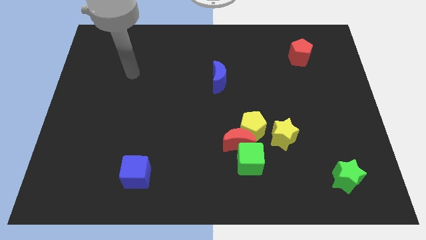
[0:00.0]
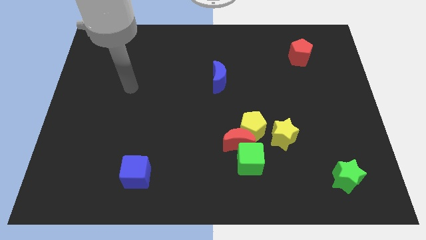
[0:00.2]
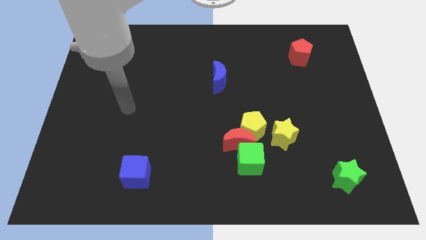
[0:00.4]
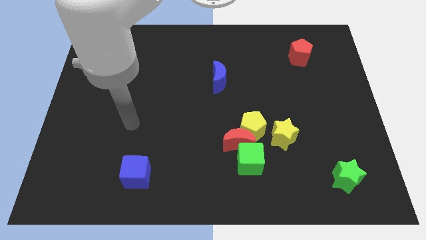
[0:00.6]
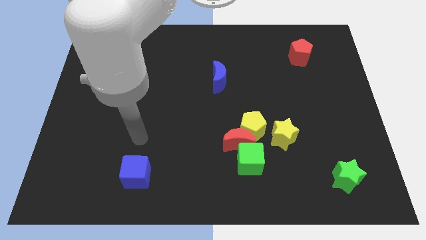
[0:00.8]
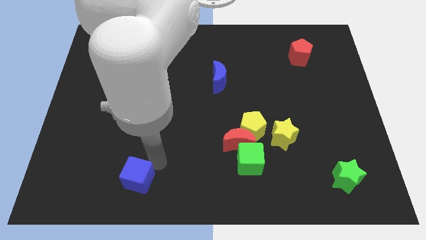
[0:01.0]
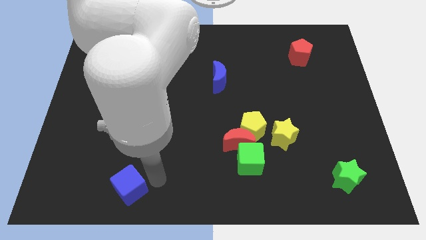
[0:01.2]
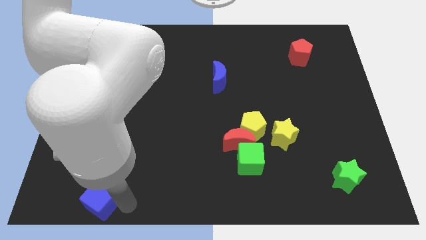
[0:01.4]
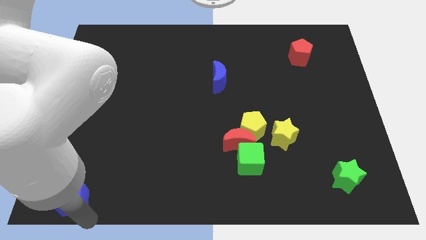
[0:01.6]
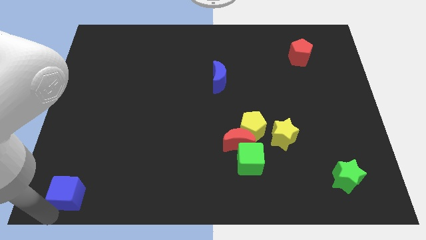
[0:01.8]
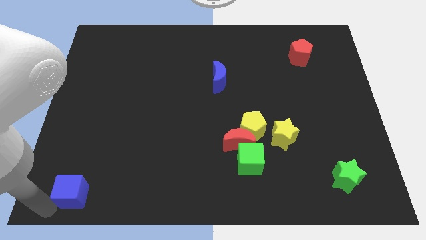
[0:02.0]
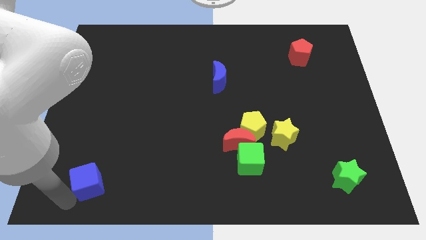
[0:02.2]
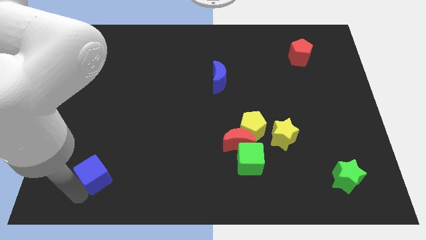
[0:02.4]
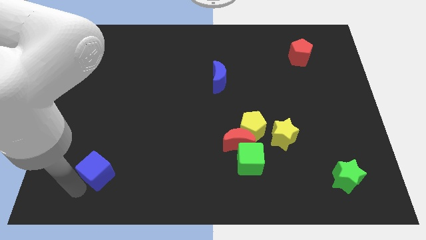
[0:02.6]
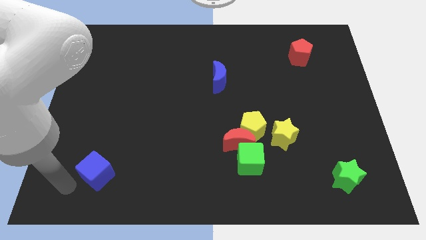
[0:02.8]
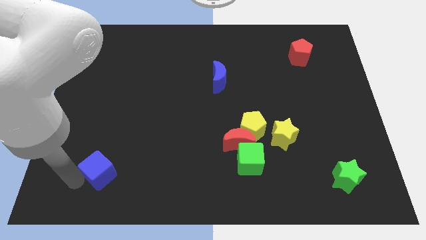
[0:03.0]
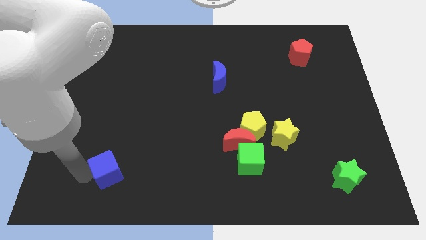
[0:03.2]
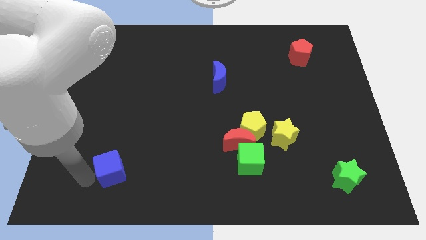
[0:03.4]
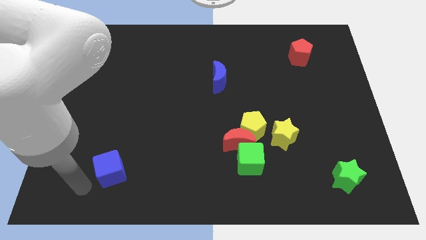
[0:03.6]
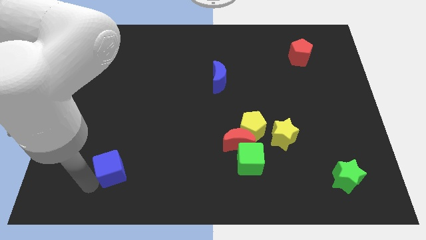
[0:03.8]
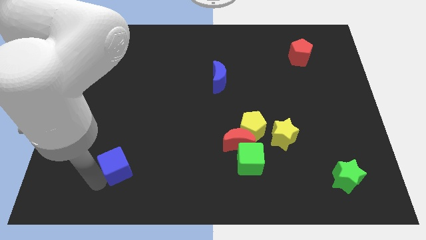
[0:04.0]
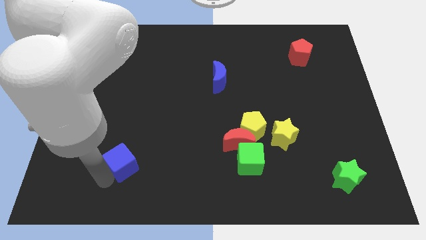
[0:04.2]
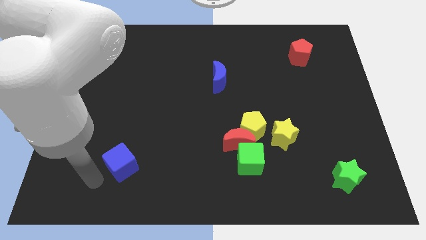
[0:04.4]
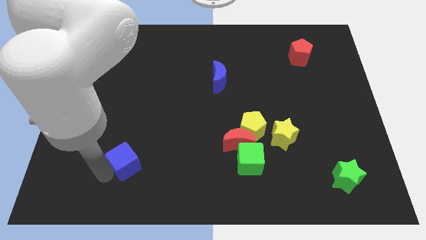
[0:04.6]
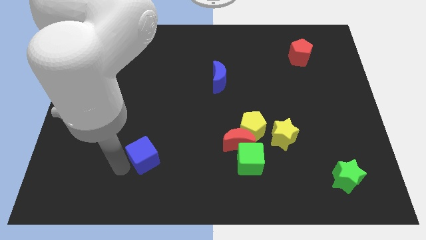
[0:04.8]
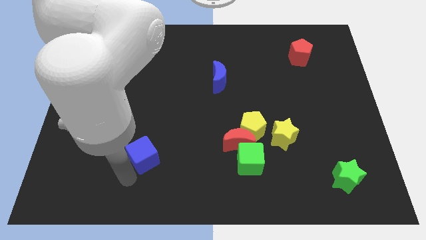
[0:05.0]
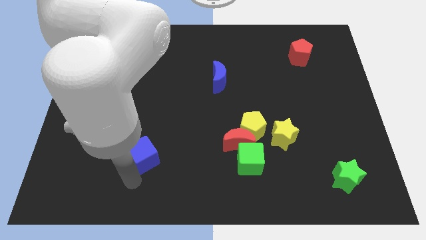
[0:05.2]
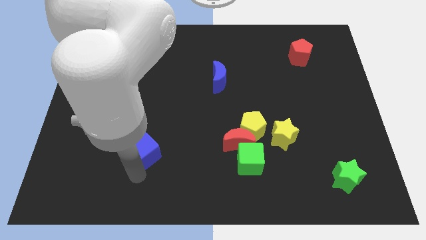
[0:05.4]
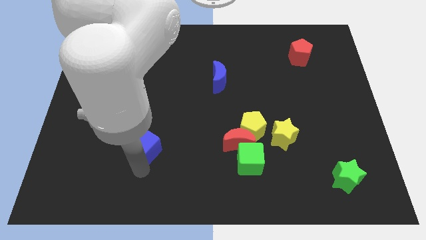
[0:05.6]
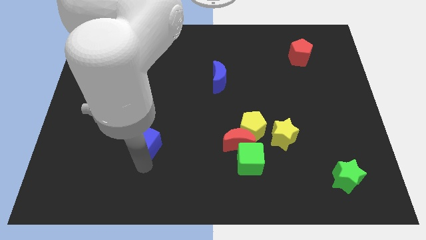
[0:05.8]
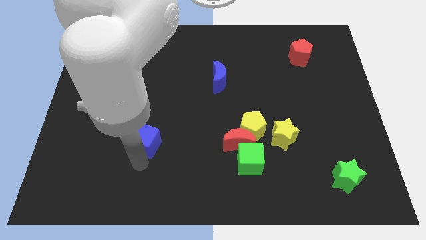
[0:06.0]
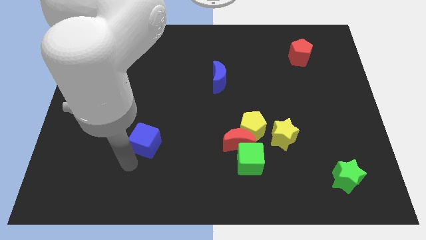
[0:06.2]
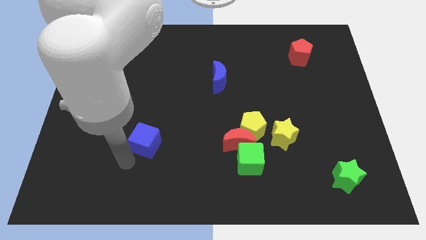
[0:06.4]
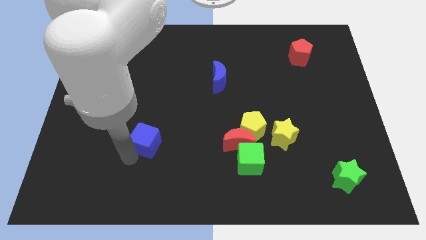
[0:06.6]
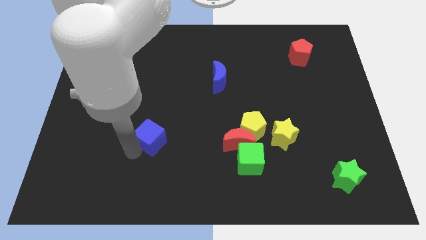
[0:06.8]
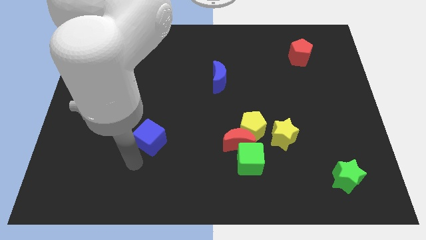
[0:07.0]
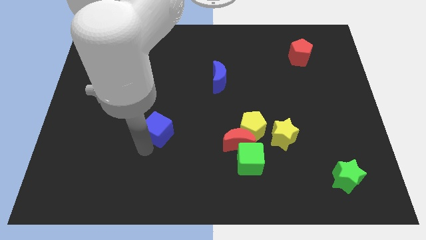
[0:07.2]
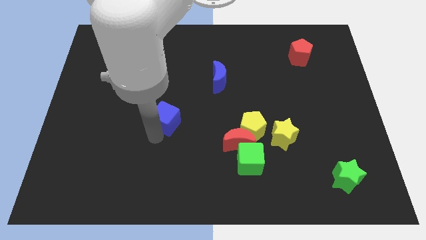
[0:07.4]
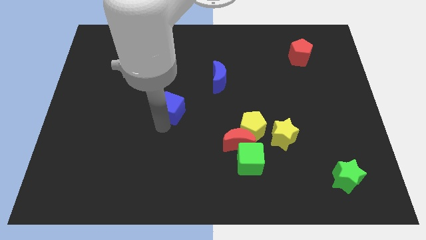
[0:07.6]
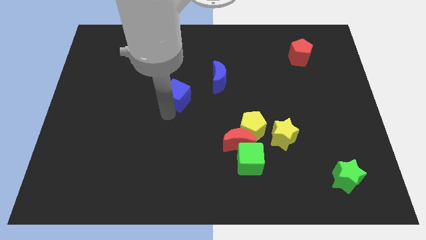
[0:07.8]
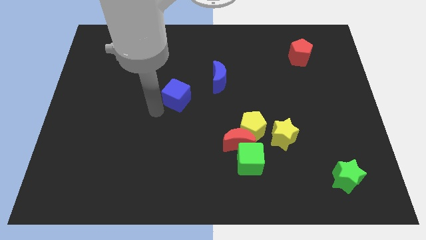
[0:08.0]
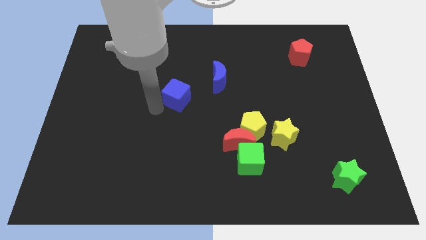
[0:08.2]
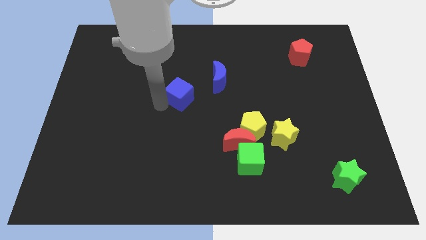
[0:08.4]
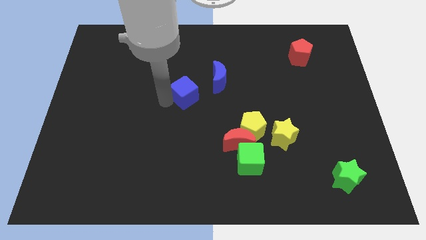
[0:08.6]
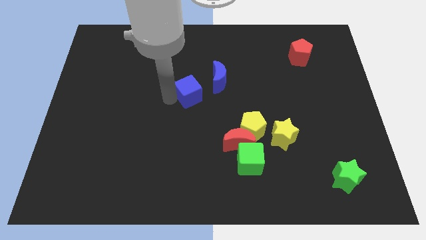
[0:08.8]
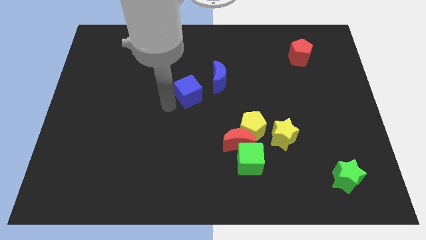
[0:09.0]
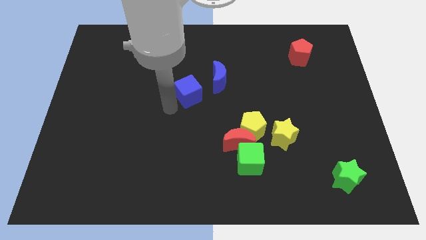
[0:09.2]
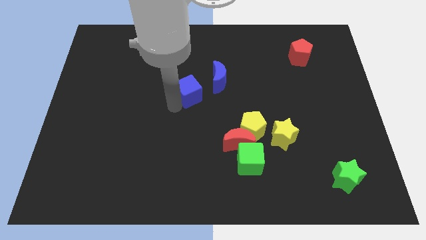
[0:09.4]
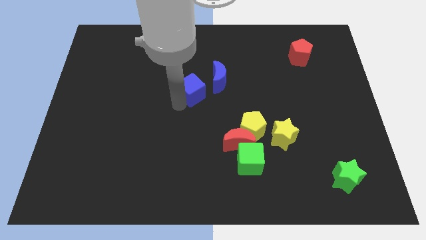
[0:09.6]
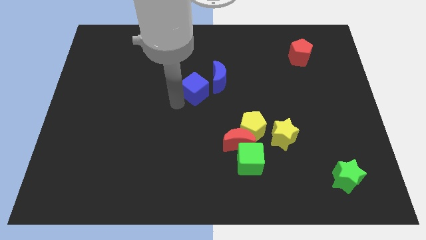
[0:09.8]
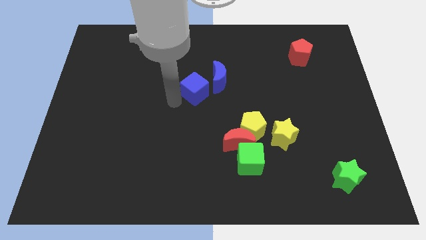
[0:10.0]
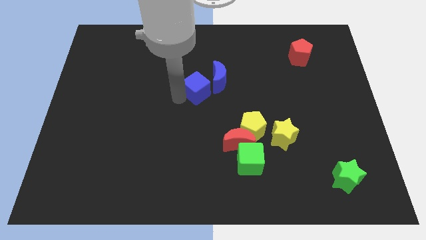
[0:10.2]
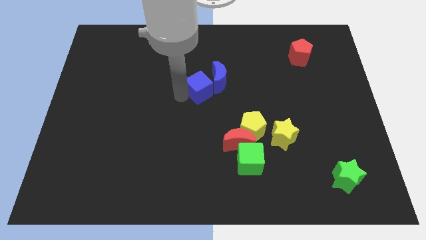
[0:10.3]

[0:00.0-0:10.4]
push the blue cube towards the blue moon

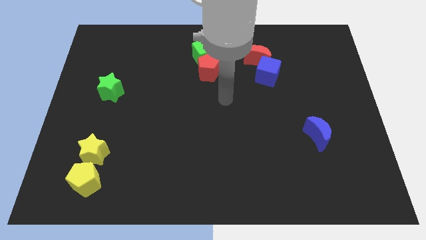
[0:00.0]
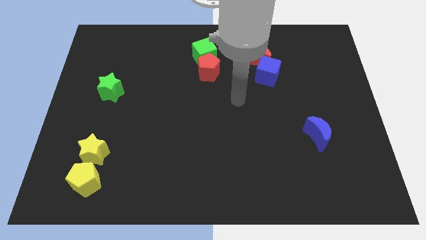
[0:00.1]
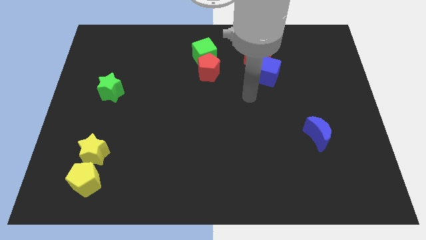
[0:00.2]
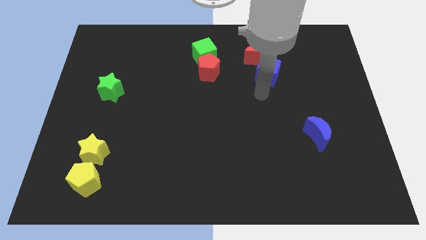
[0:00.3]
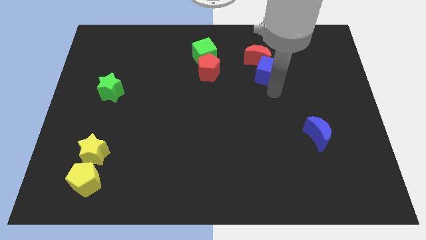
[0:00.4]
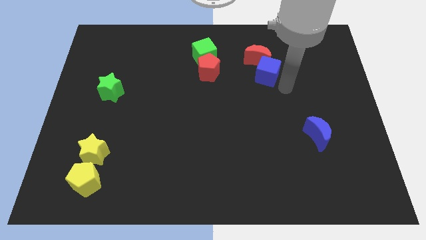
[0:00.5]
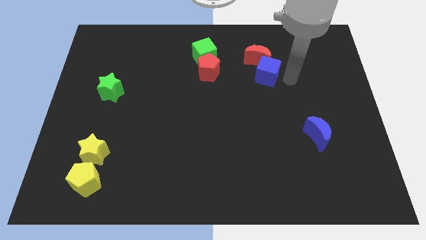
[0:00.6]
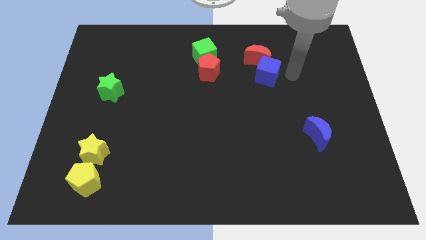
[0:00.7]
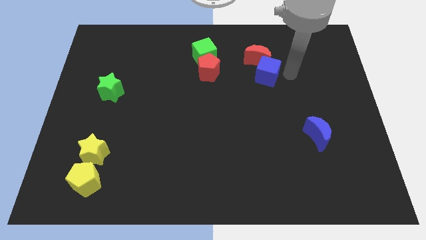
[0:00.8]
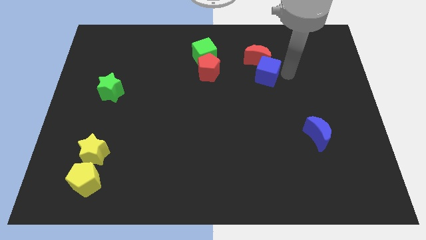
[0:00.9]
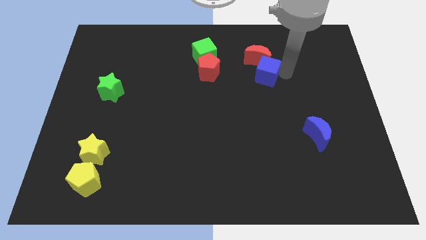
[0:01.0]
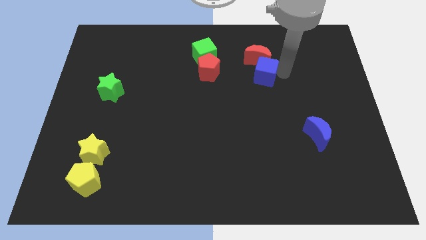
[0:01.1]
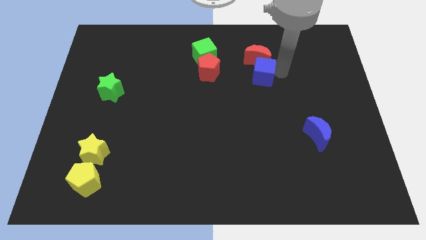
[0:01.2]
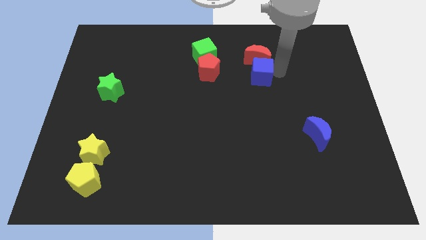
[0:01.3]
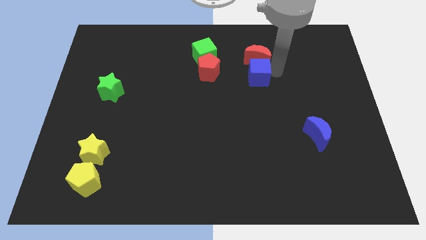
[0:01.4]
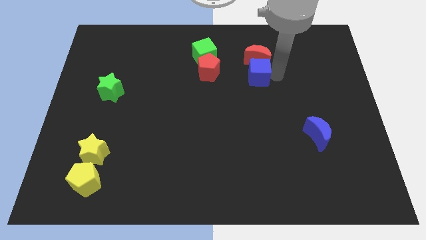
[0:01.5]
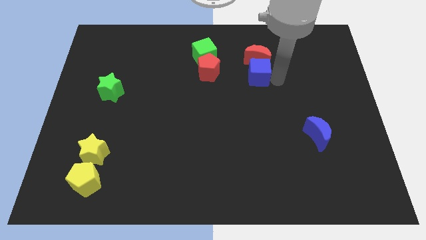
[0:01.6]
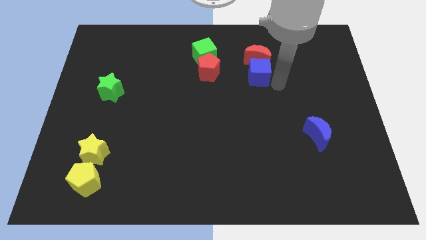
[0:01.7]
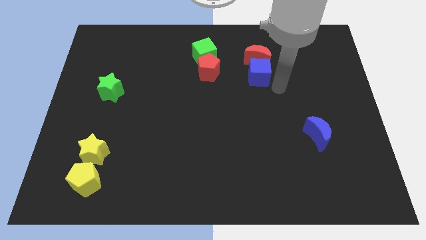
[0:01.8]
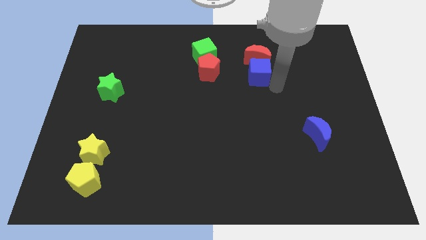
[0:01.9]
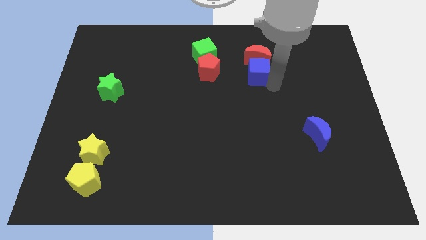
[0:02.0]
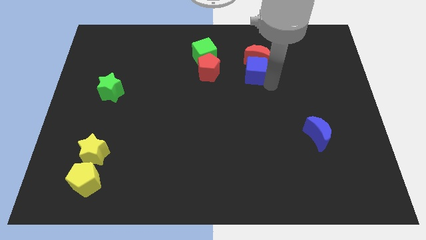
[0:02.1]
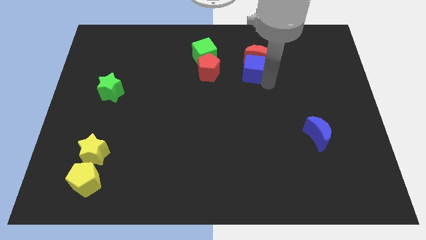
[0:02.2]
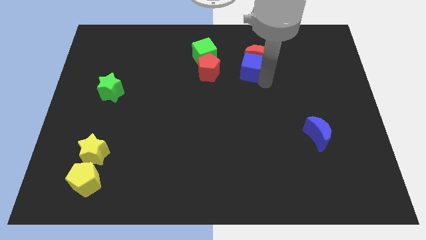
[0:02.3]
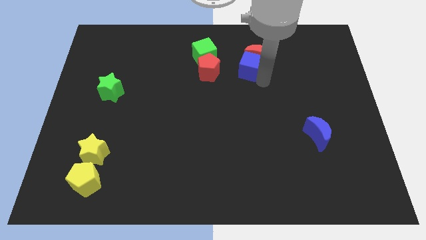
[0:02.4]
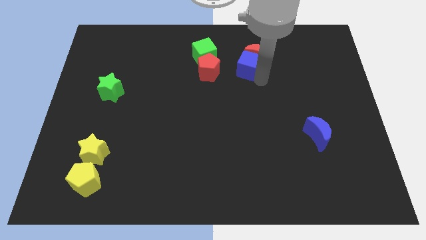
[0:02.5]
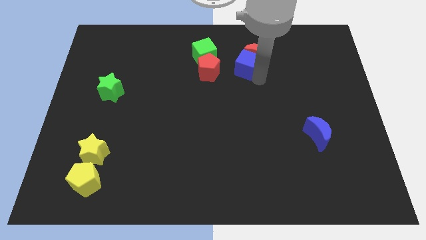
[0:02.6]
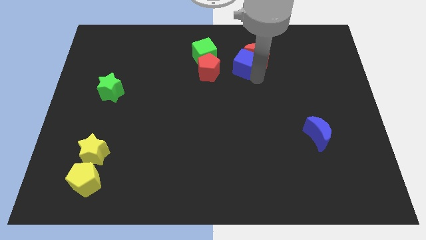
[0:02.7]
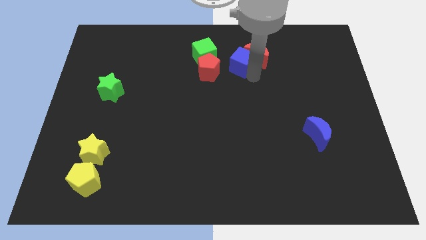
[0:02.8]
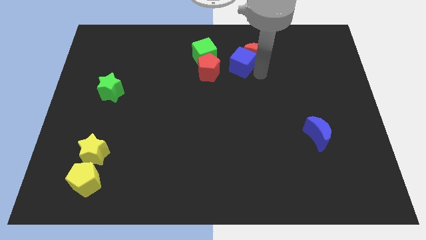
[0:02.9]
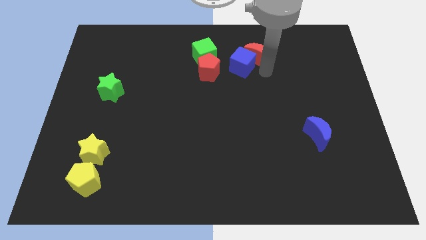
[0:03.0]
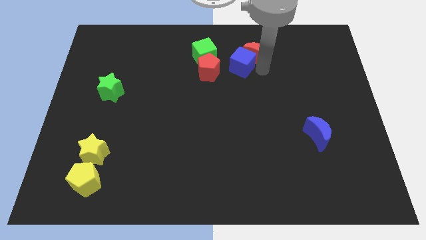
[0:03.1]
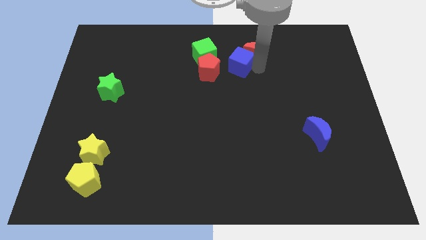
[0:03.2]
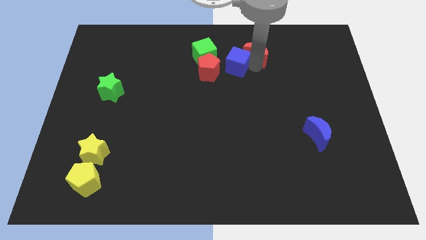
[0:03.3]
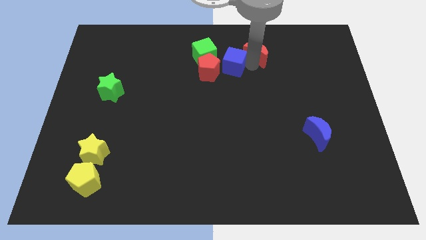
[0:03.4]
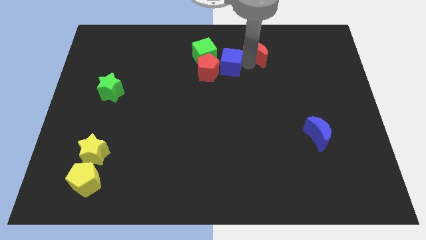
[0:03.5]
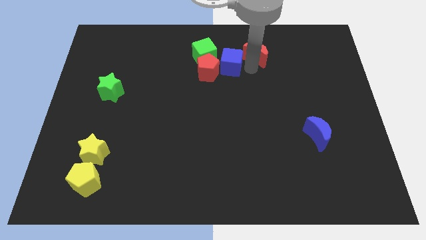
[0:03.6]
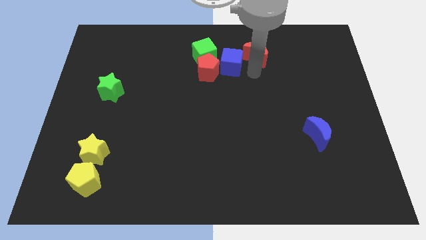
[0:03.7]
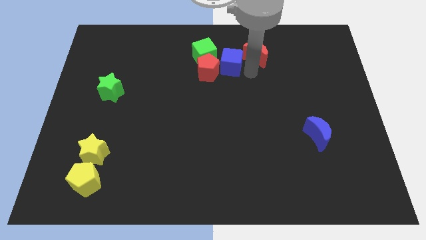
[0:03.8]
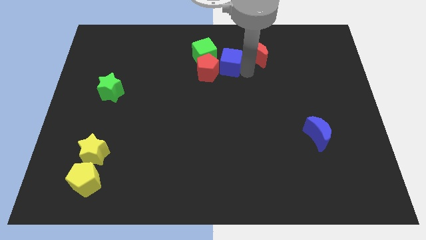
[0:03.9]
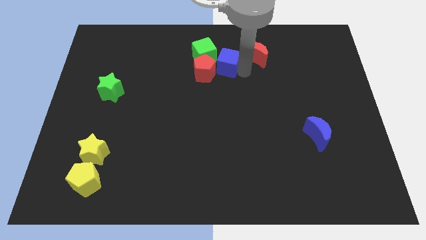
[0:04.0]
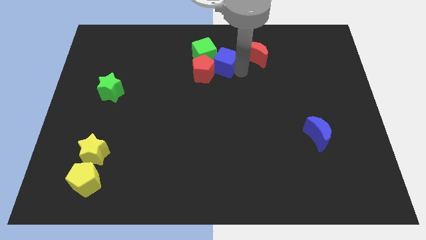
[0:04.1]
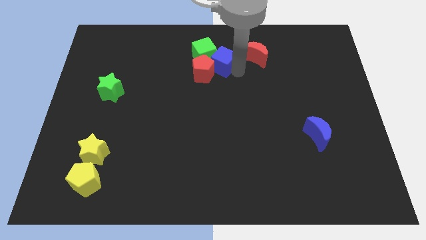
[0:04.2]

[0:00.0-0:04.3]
put the blue cube towards the green cube
